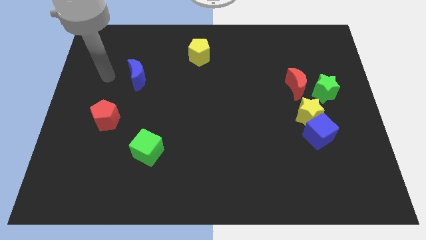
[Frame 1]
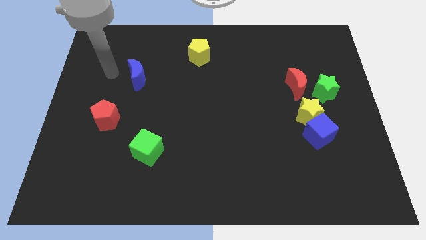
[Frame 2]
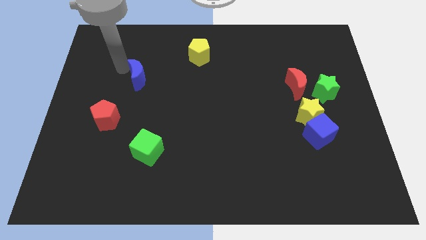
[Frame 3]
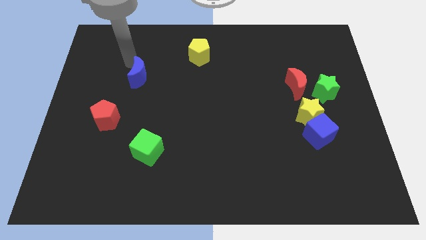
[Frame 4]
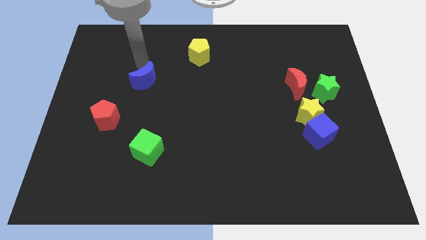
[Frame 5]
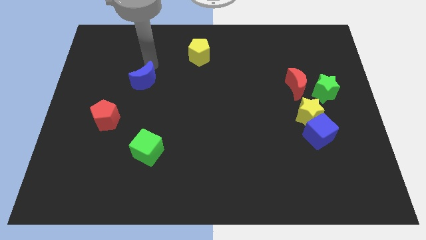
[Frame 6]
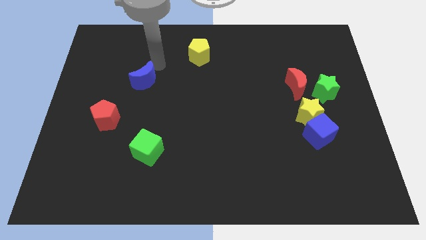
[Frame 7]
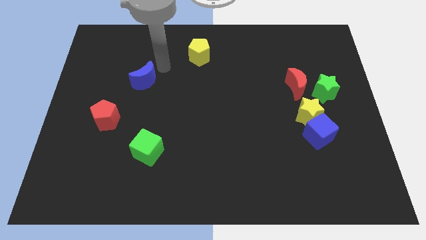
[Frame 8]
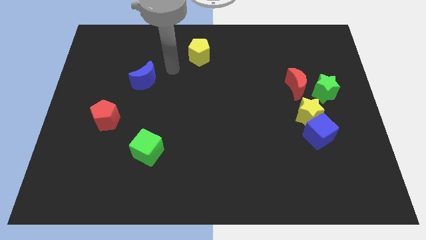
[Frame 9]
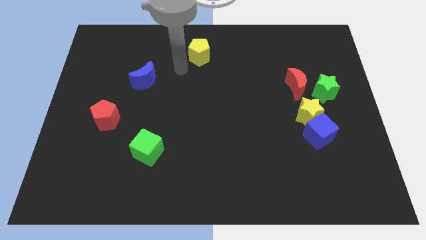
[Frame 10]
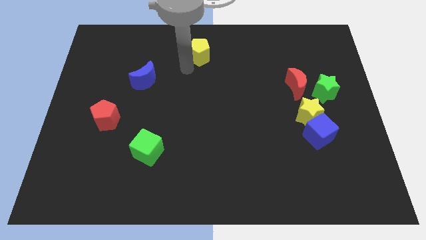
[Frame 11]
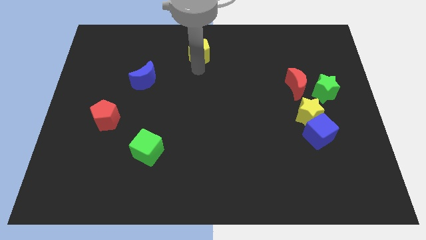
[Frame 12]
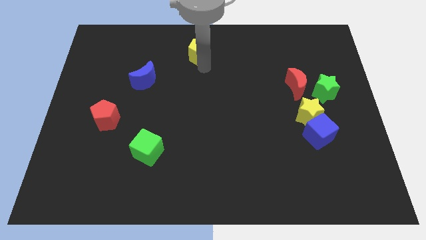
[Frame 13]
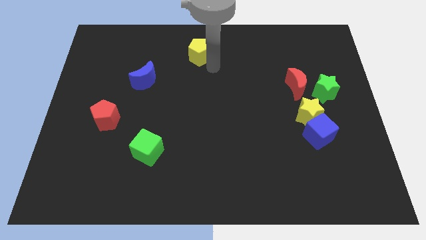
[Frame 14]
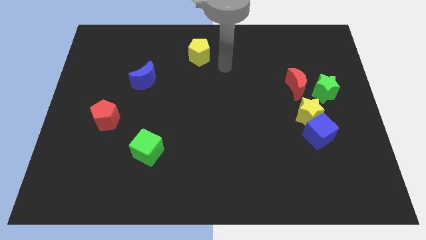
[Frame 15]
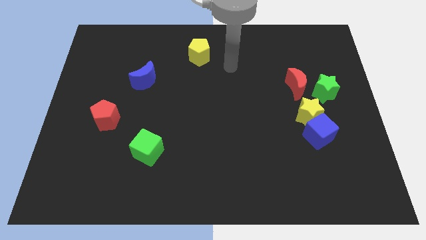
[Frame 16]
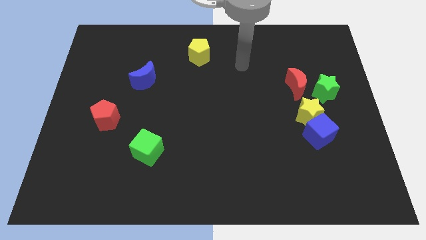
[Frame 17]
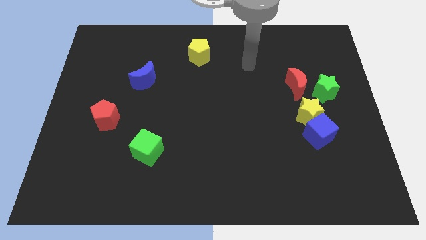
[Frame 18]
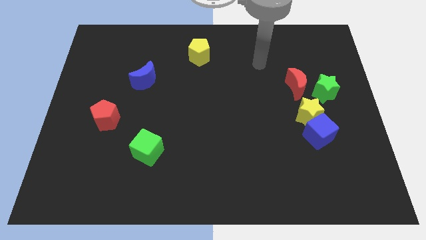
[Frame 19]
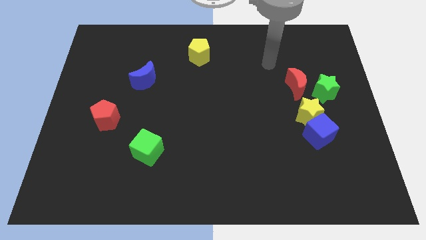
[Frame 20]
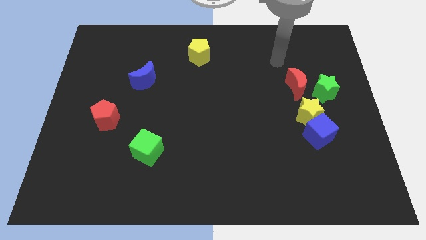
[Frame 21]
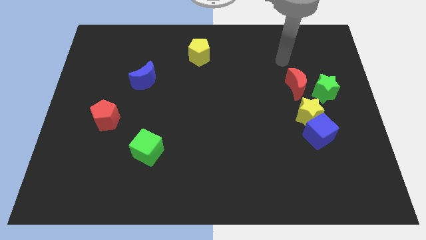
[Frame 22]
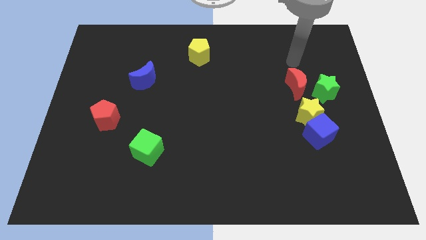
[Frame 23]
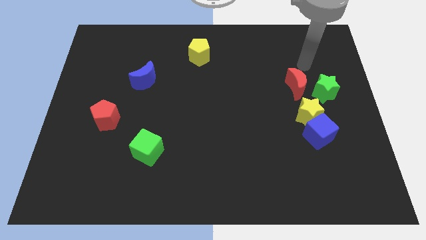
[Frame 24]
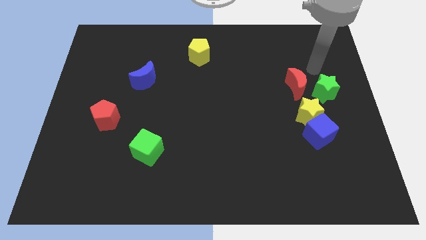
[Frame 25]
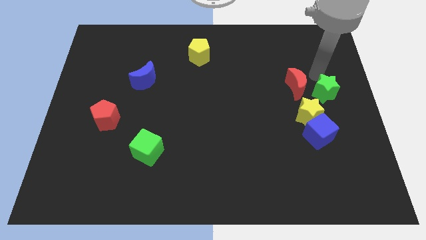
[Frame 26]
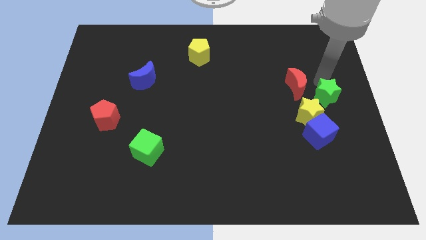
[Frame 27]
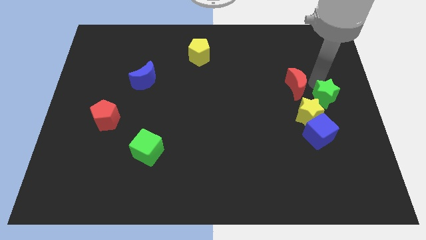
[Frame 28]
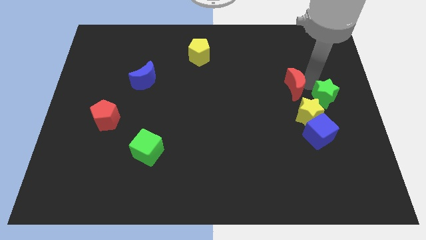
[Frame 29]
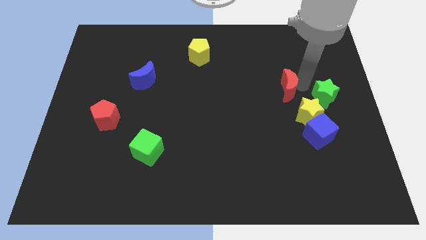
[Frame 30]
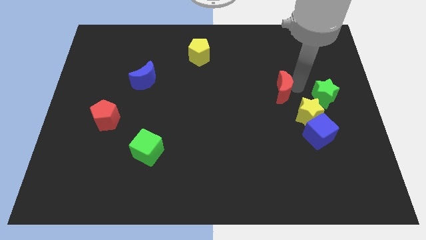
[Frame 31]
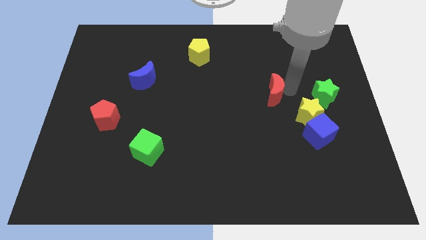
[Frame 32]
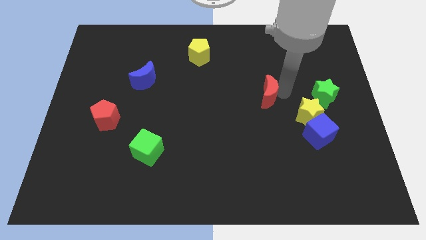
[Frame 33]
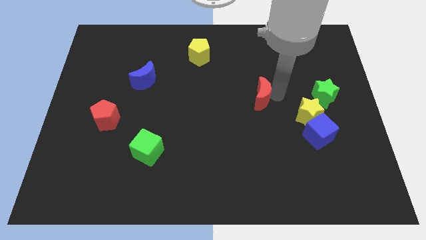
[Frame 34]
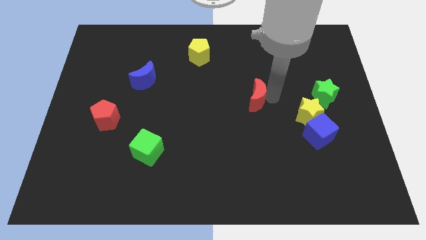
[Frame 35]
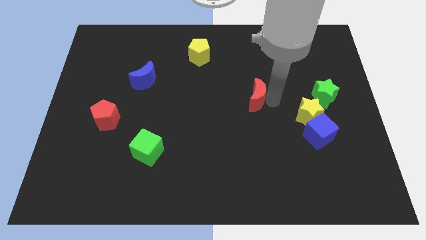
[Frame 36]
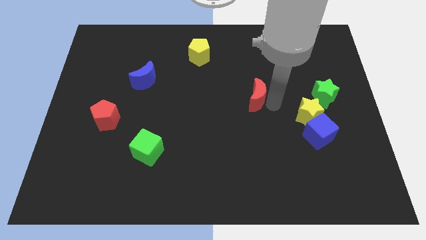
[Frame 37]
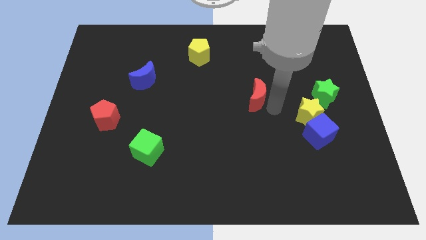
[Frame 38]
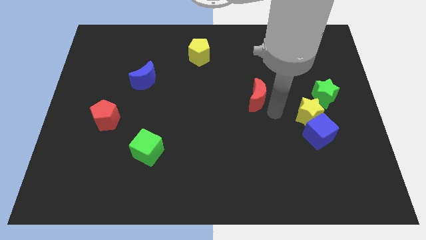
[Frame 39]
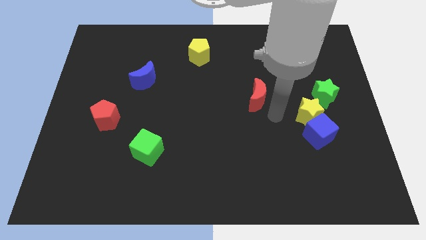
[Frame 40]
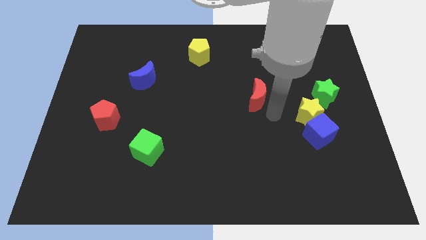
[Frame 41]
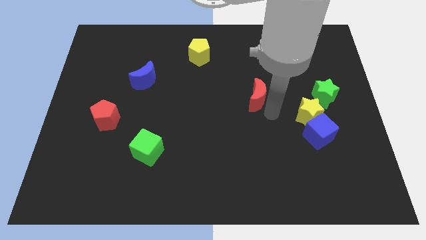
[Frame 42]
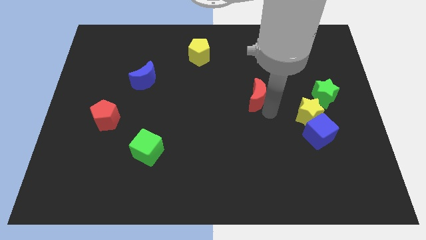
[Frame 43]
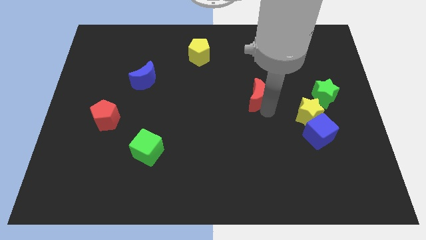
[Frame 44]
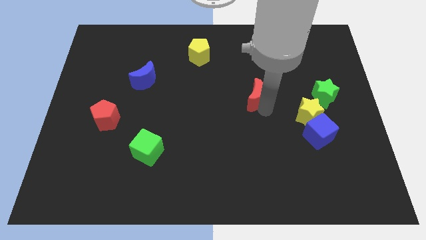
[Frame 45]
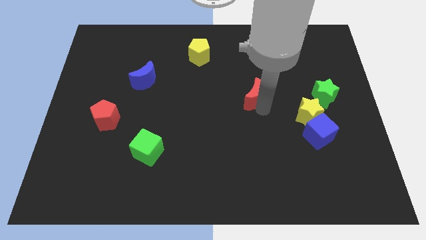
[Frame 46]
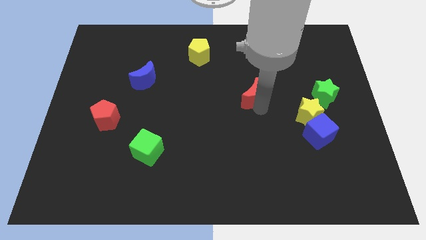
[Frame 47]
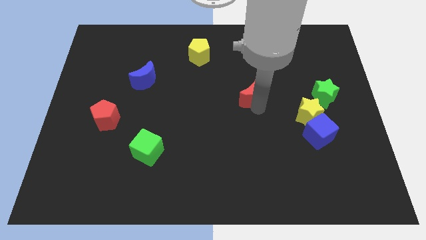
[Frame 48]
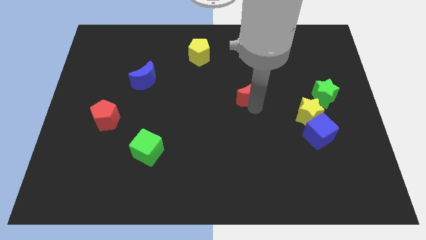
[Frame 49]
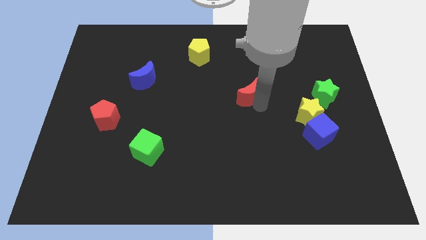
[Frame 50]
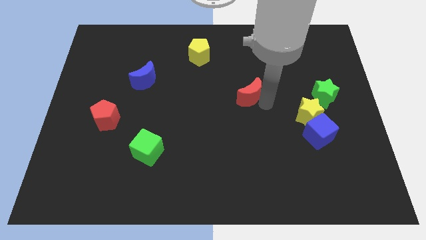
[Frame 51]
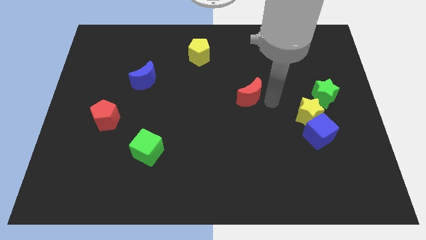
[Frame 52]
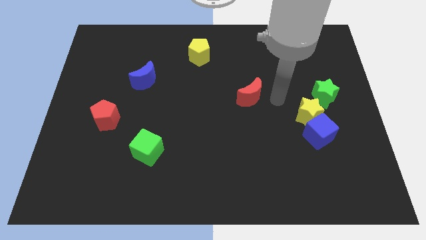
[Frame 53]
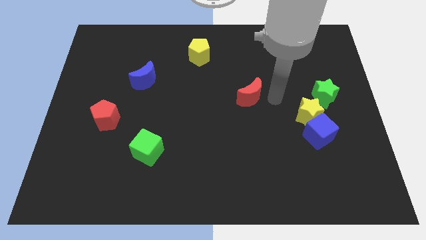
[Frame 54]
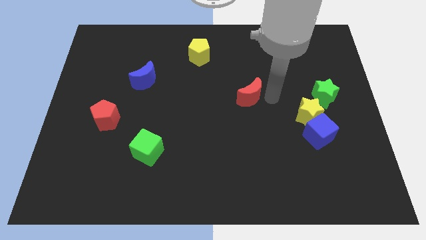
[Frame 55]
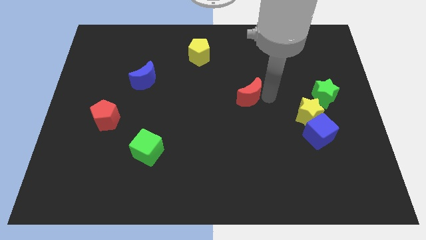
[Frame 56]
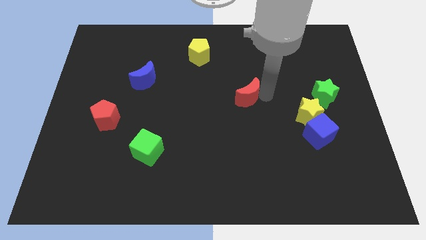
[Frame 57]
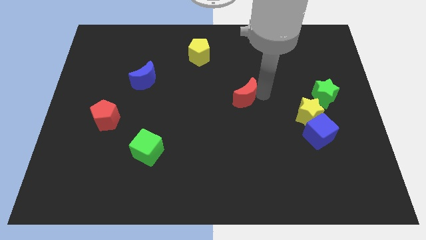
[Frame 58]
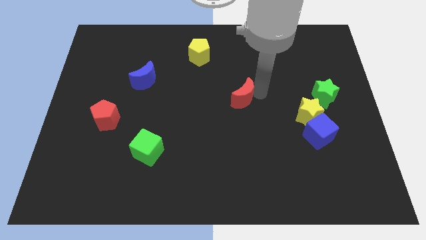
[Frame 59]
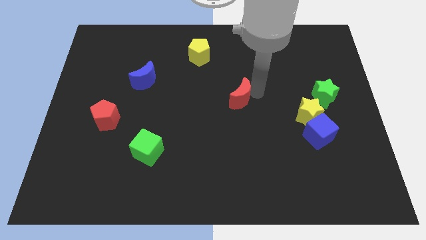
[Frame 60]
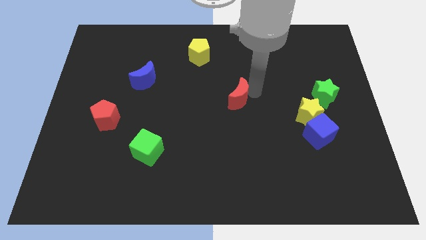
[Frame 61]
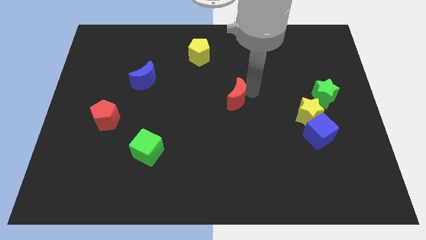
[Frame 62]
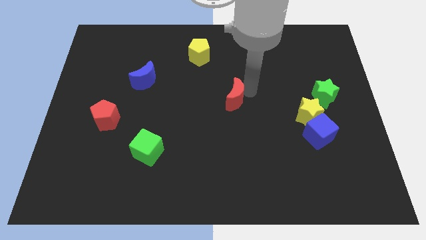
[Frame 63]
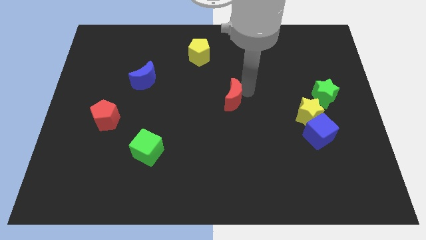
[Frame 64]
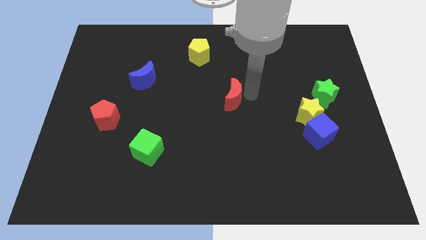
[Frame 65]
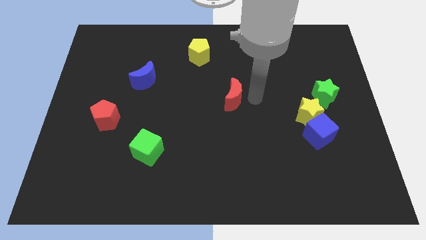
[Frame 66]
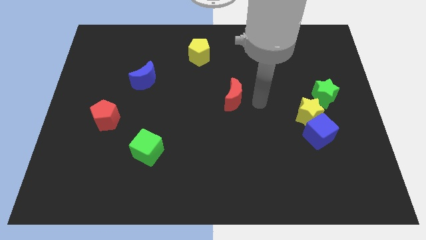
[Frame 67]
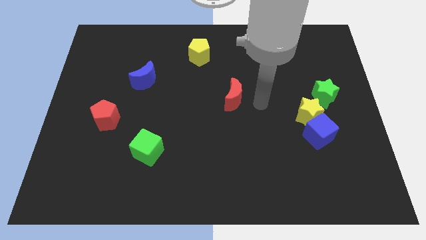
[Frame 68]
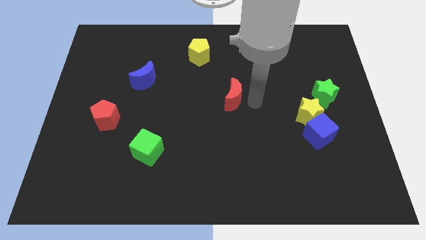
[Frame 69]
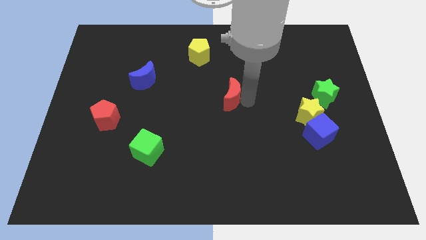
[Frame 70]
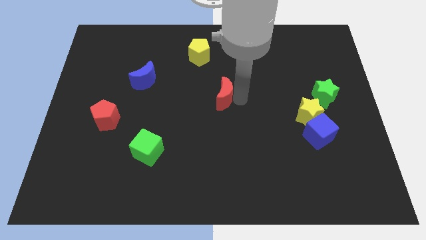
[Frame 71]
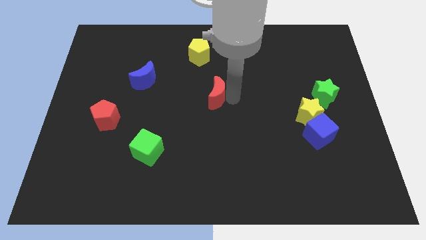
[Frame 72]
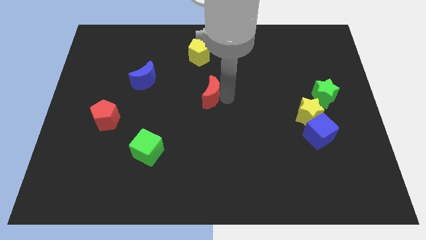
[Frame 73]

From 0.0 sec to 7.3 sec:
slide the red moon left

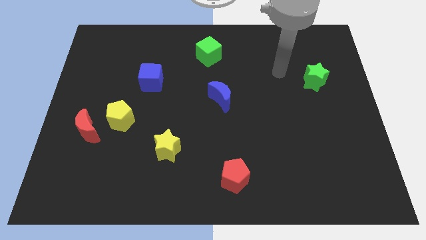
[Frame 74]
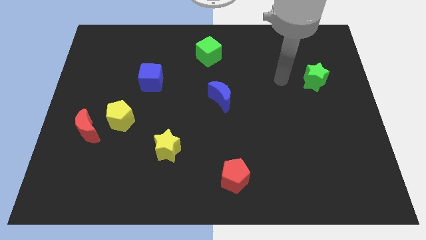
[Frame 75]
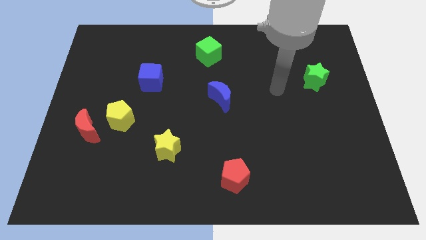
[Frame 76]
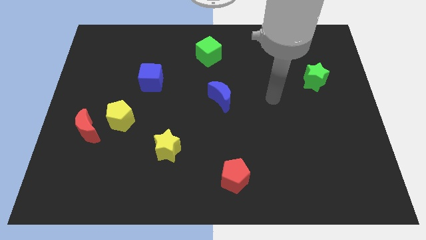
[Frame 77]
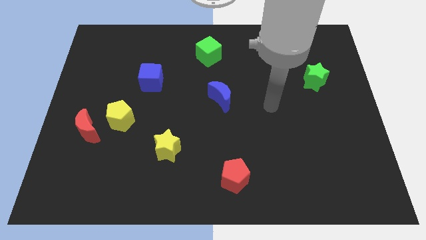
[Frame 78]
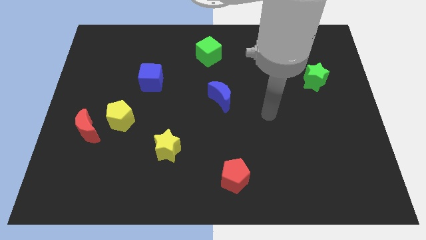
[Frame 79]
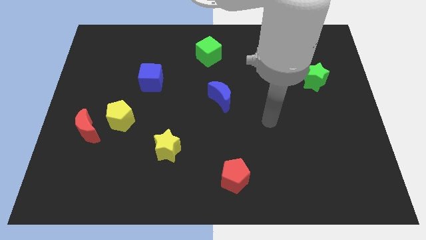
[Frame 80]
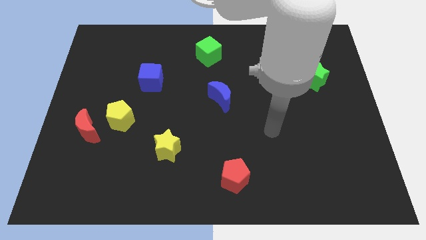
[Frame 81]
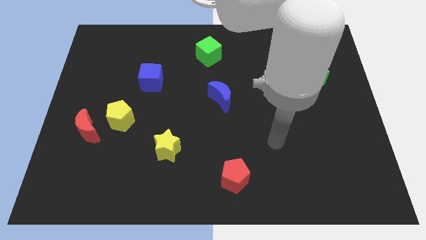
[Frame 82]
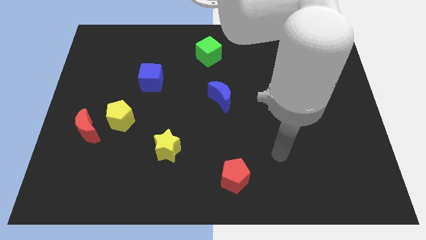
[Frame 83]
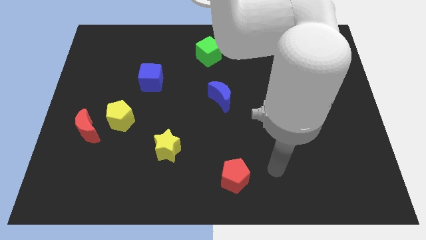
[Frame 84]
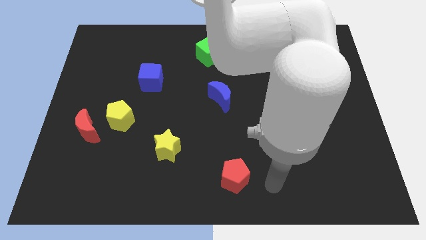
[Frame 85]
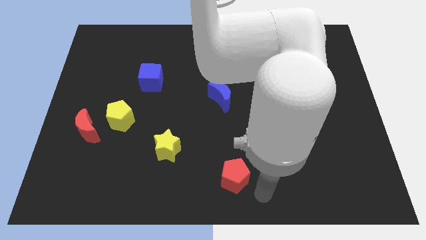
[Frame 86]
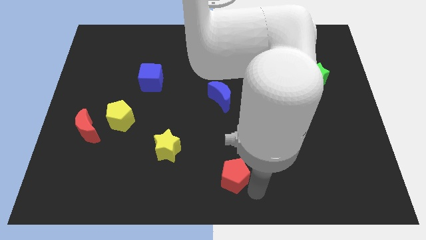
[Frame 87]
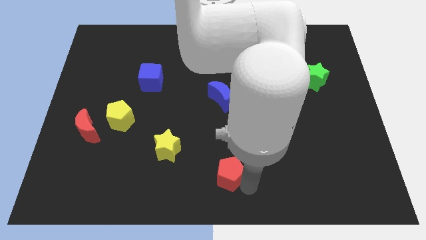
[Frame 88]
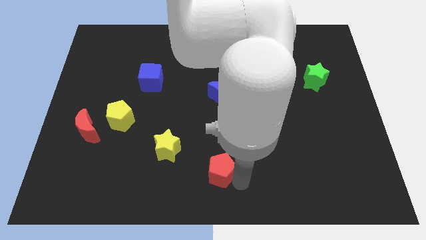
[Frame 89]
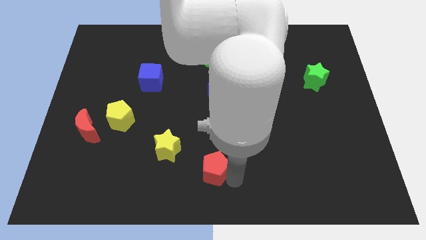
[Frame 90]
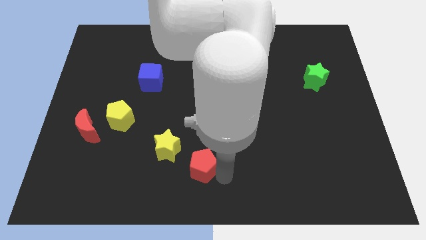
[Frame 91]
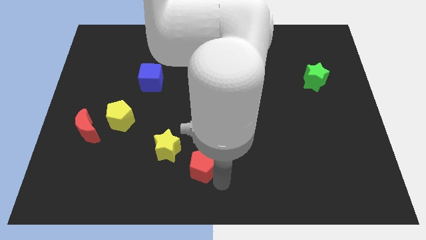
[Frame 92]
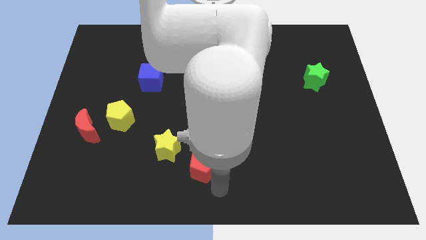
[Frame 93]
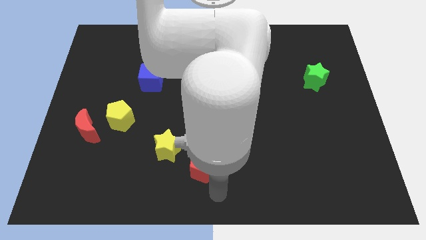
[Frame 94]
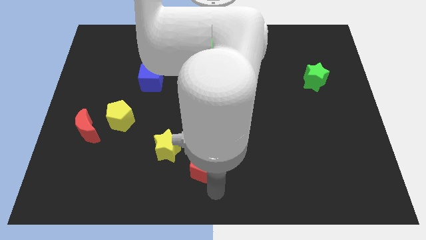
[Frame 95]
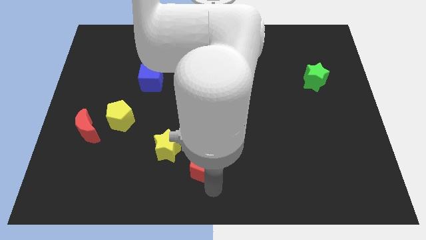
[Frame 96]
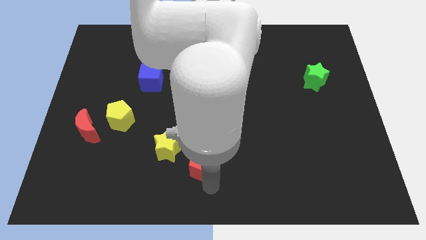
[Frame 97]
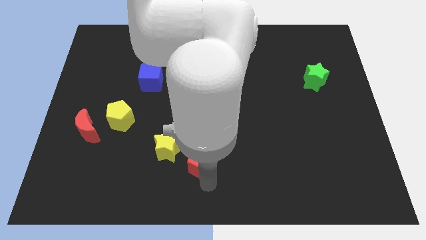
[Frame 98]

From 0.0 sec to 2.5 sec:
slide the red pentagon upwards and then left slightly
